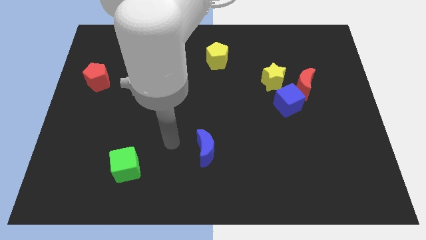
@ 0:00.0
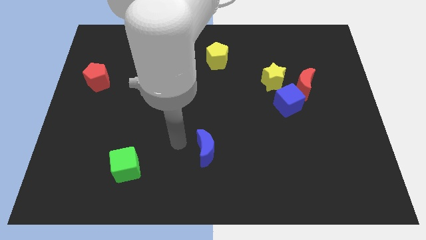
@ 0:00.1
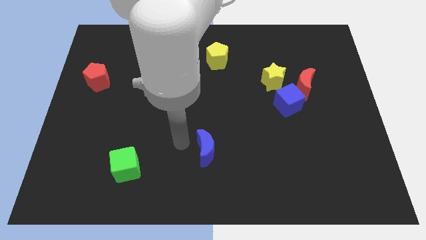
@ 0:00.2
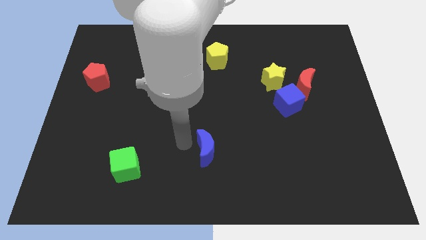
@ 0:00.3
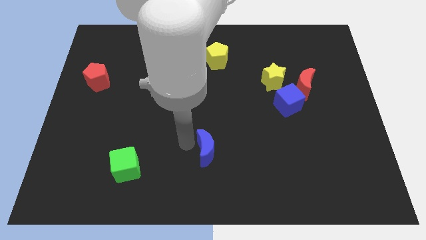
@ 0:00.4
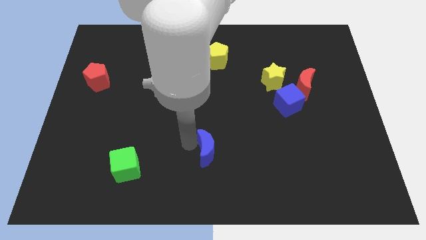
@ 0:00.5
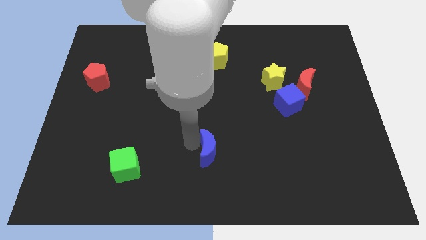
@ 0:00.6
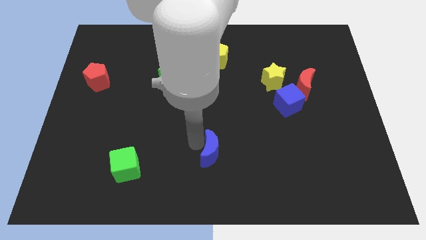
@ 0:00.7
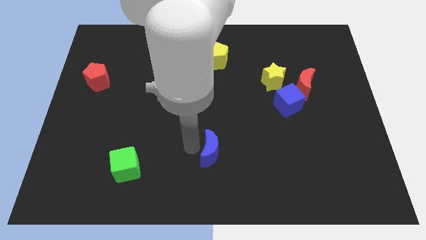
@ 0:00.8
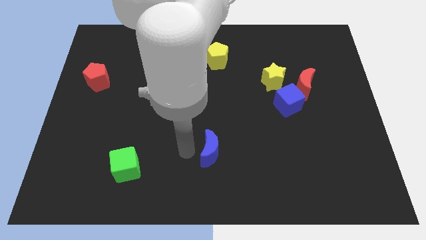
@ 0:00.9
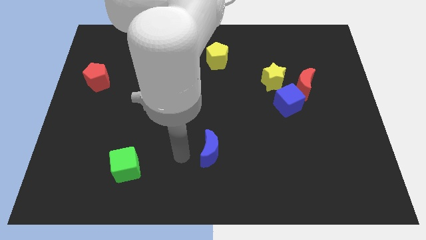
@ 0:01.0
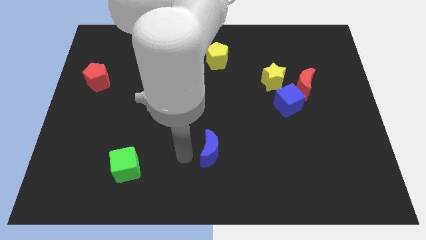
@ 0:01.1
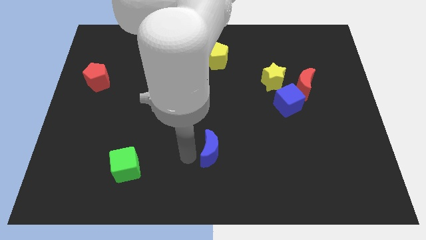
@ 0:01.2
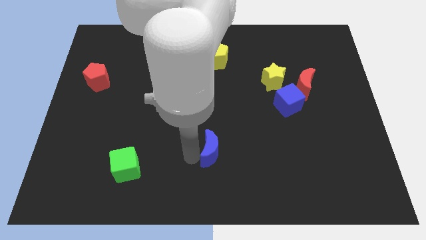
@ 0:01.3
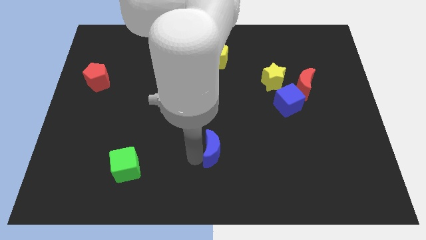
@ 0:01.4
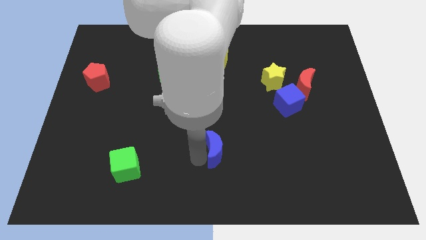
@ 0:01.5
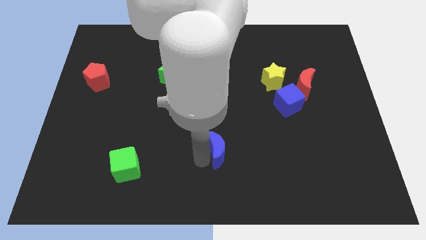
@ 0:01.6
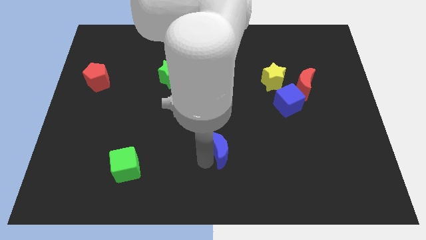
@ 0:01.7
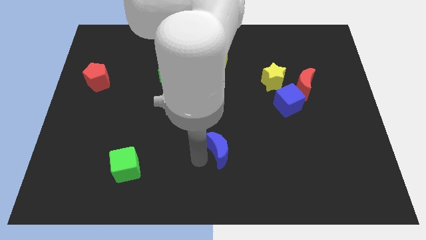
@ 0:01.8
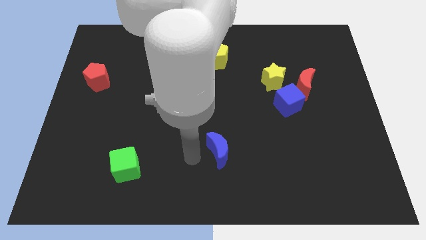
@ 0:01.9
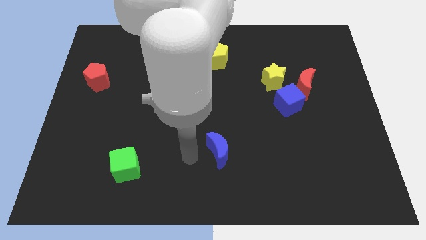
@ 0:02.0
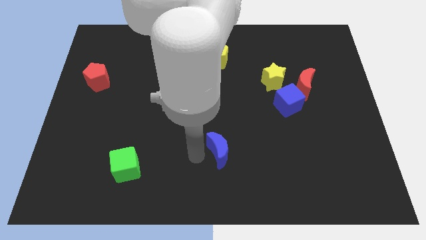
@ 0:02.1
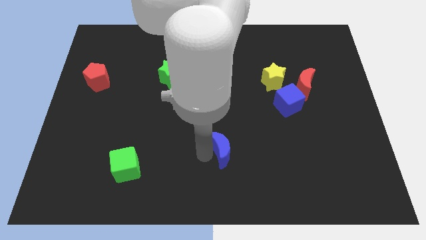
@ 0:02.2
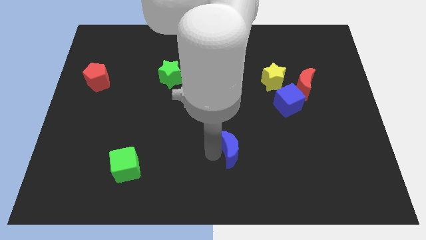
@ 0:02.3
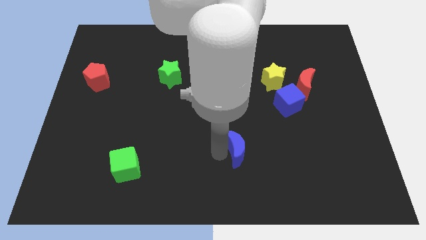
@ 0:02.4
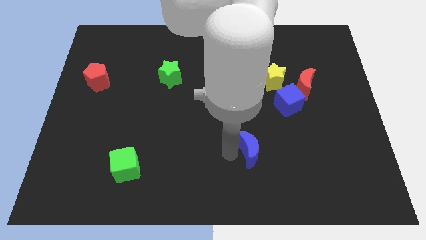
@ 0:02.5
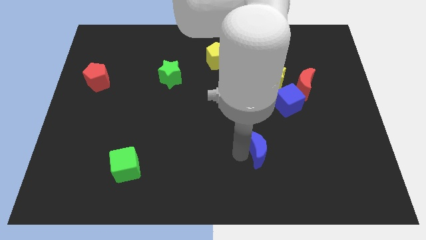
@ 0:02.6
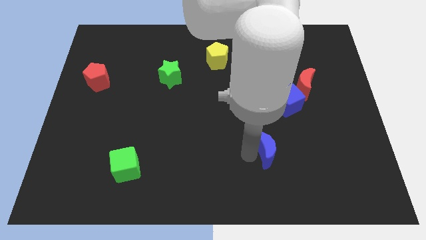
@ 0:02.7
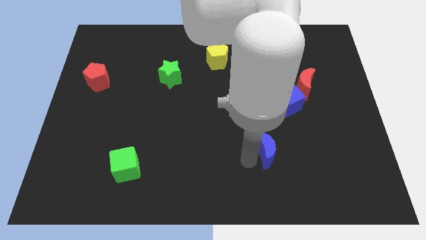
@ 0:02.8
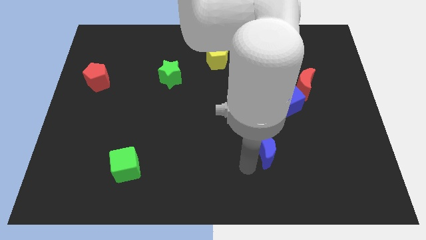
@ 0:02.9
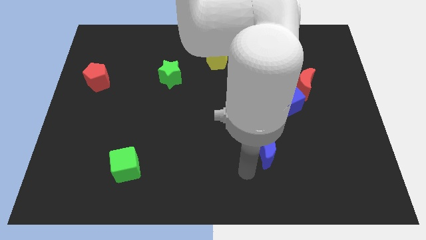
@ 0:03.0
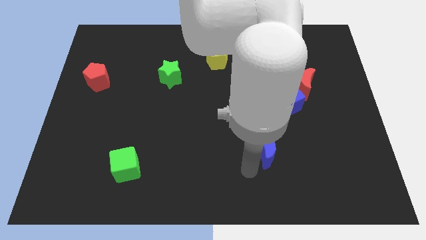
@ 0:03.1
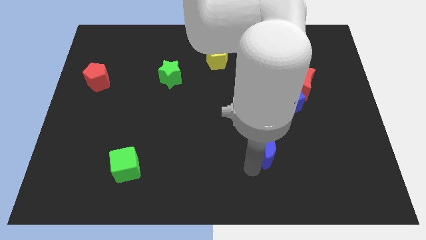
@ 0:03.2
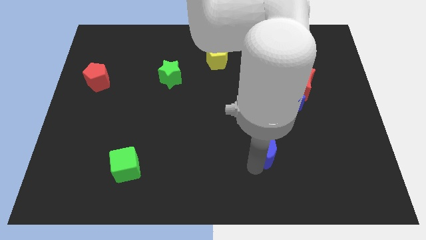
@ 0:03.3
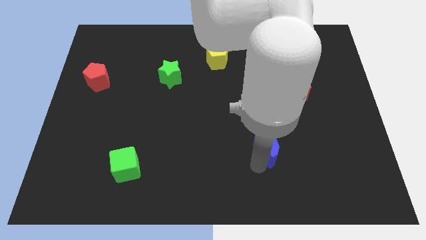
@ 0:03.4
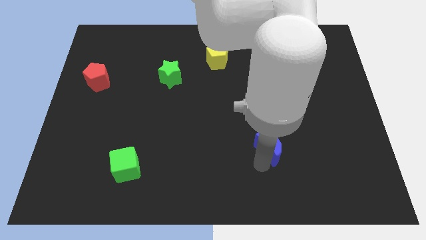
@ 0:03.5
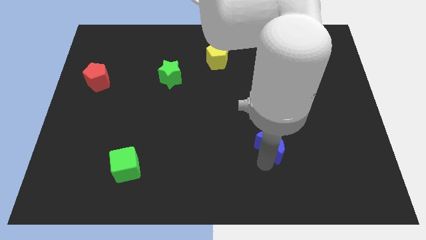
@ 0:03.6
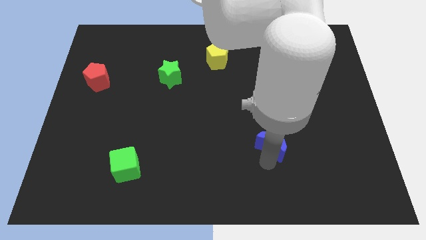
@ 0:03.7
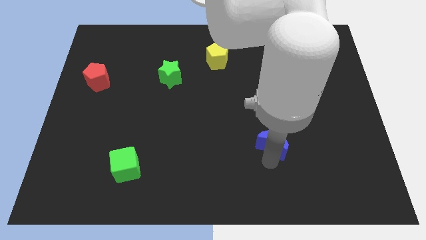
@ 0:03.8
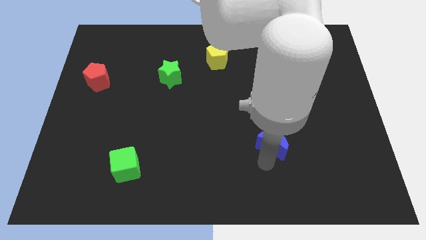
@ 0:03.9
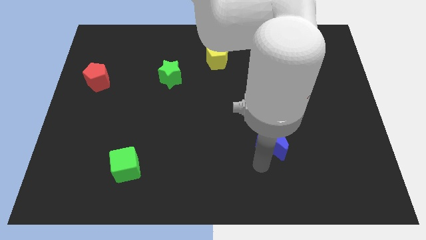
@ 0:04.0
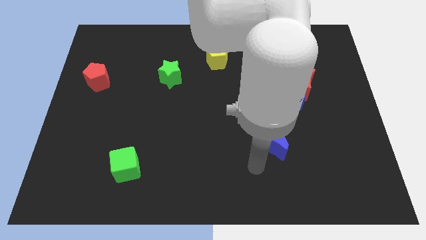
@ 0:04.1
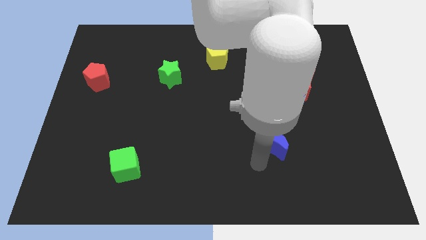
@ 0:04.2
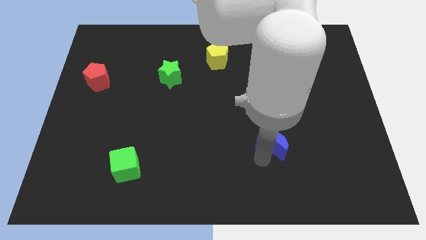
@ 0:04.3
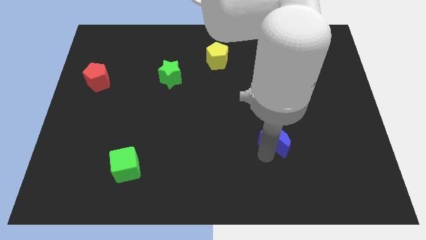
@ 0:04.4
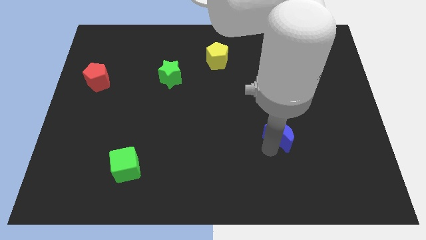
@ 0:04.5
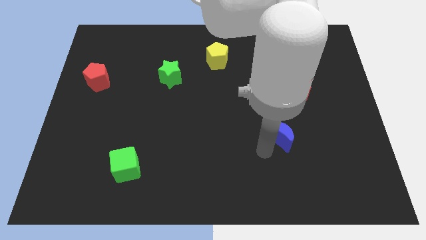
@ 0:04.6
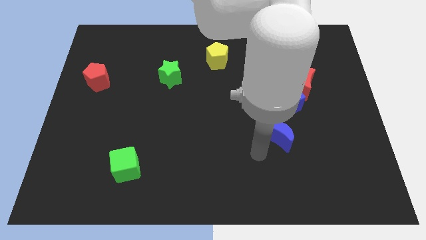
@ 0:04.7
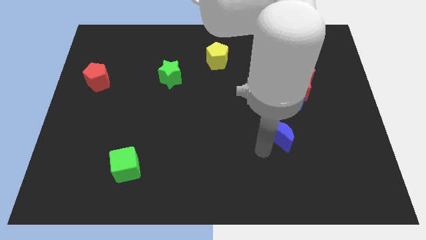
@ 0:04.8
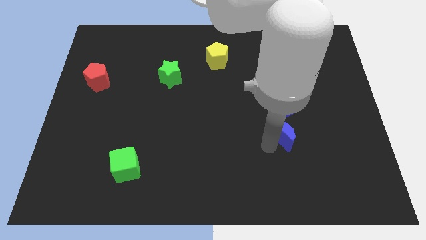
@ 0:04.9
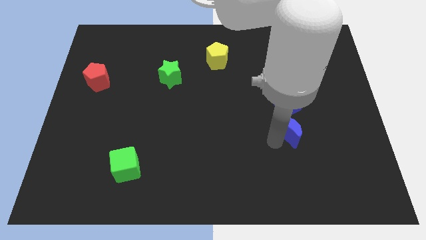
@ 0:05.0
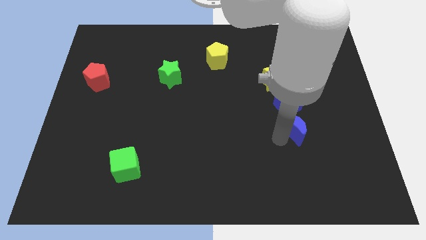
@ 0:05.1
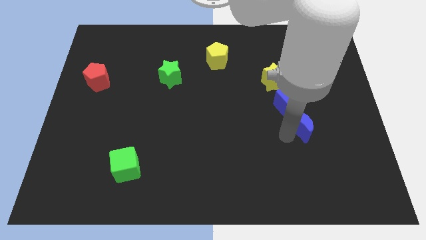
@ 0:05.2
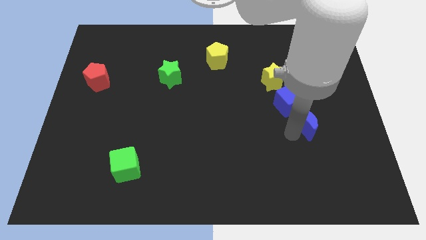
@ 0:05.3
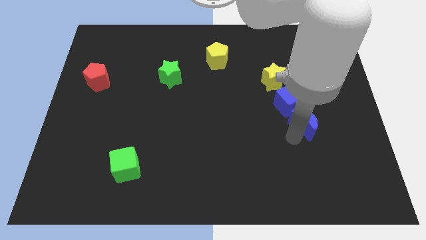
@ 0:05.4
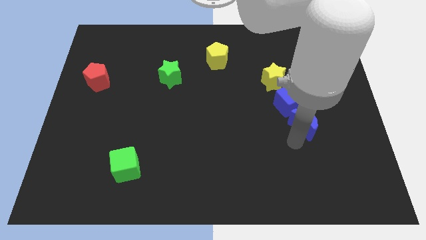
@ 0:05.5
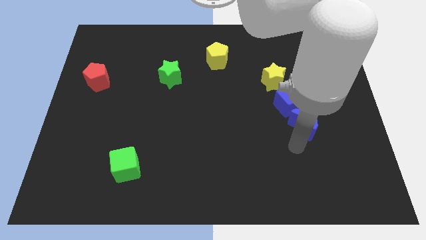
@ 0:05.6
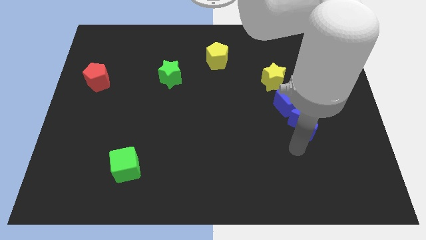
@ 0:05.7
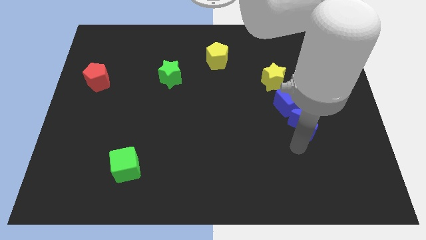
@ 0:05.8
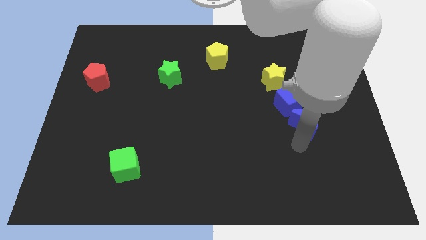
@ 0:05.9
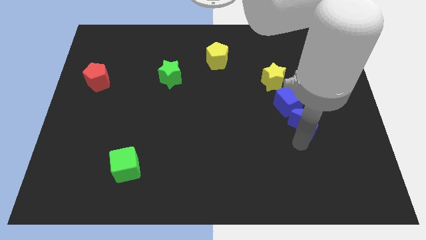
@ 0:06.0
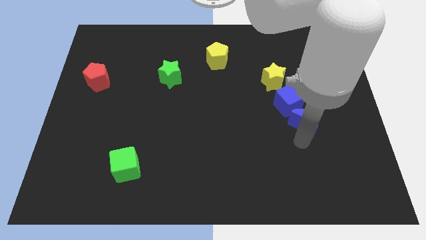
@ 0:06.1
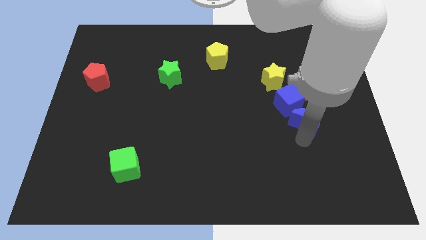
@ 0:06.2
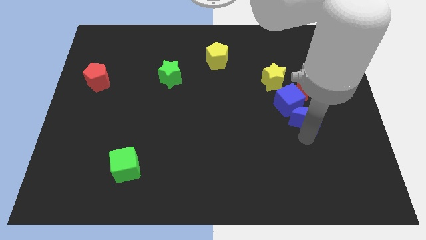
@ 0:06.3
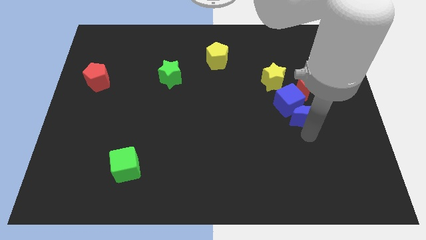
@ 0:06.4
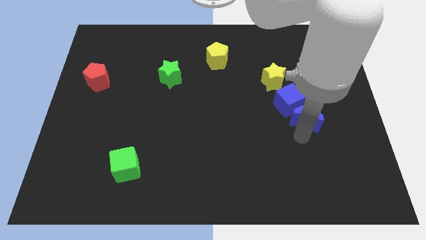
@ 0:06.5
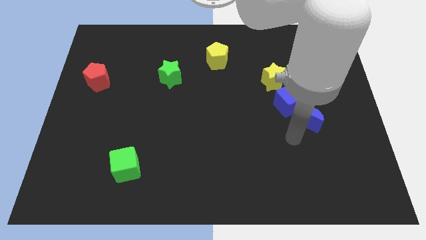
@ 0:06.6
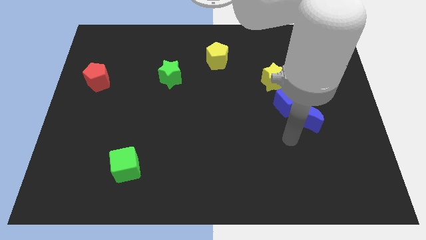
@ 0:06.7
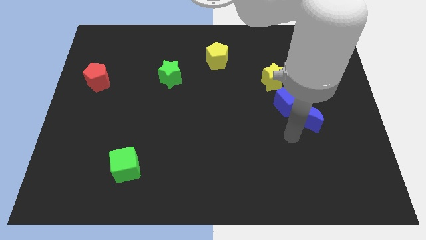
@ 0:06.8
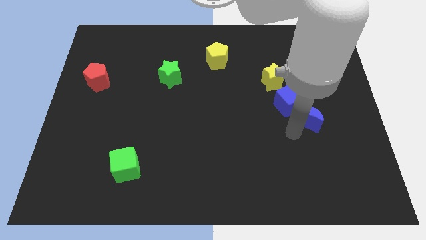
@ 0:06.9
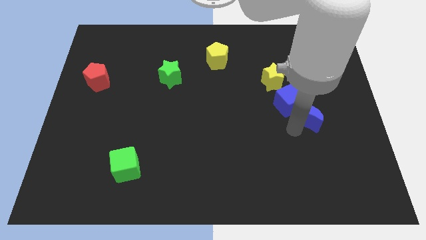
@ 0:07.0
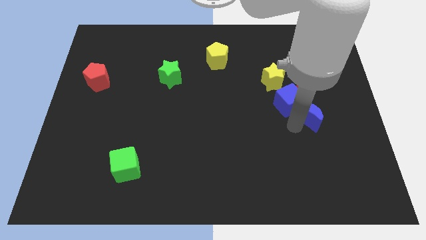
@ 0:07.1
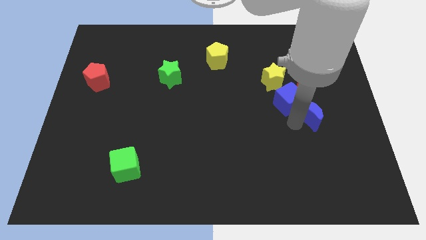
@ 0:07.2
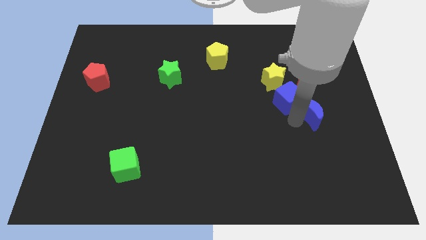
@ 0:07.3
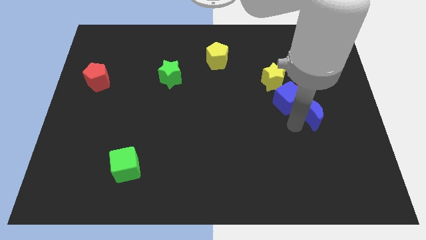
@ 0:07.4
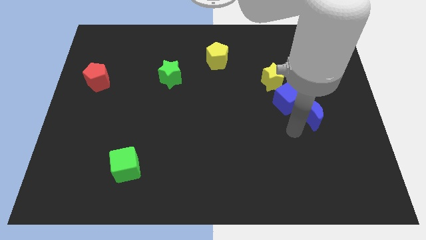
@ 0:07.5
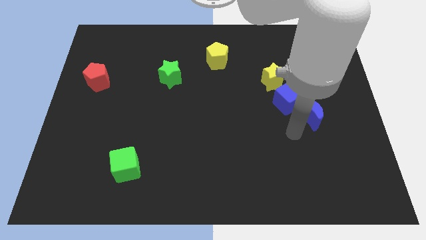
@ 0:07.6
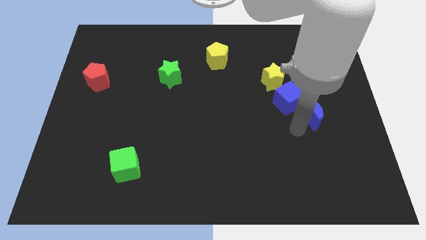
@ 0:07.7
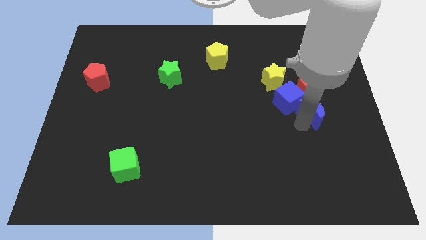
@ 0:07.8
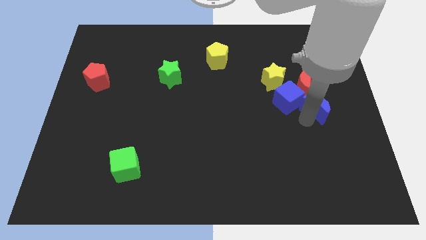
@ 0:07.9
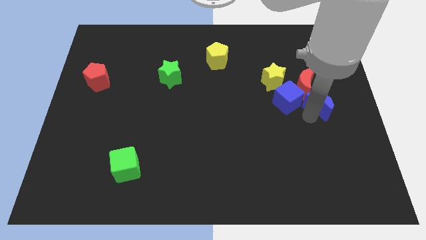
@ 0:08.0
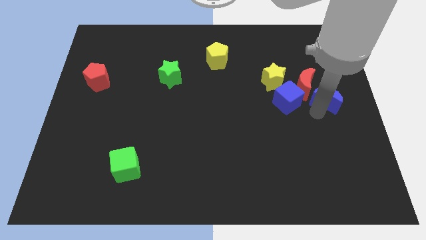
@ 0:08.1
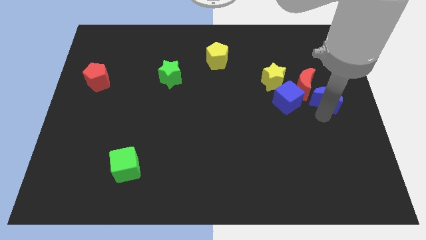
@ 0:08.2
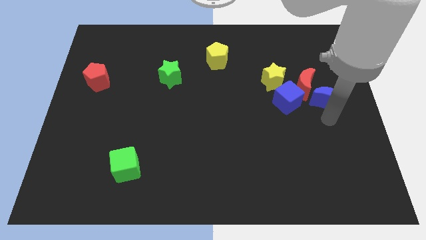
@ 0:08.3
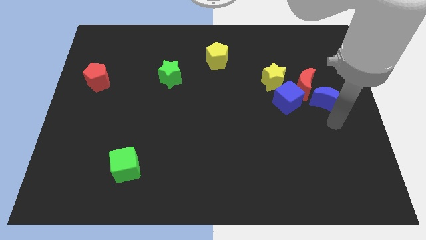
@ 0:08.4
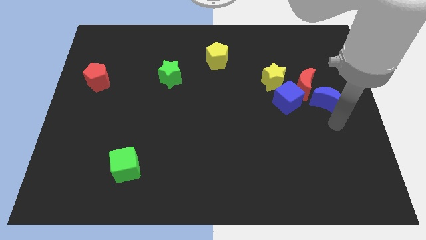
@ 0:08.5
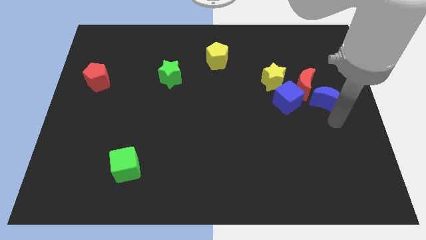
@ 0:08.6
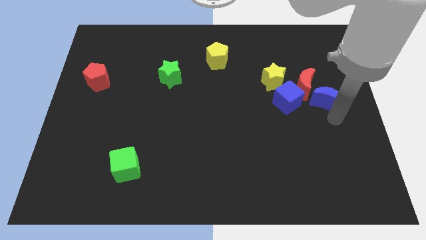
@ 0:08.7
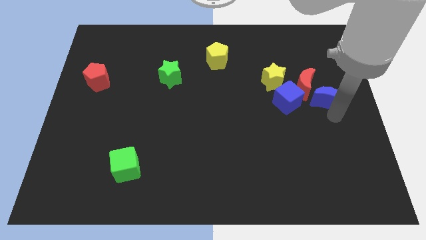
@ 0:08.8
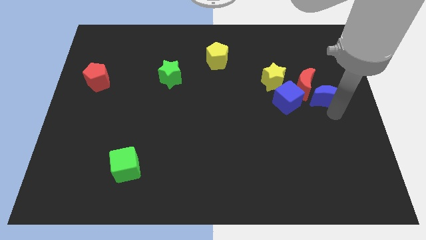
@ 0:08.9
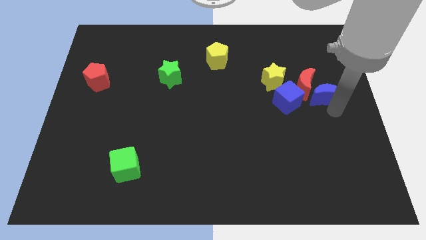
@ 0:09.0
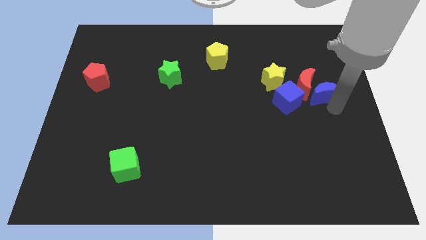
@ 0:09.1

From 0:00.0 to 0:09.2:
put the blue moon to the right side of the yellow star
